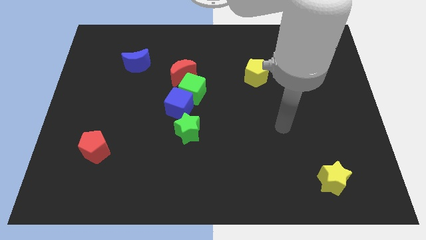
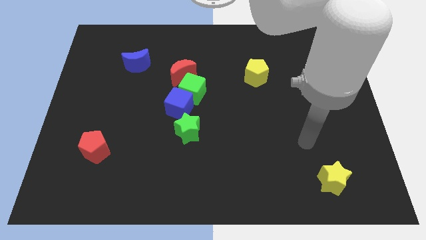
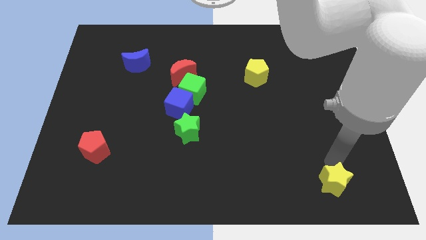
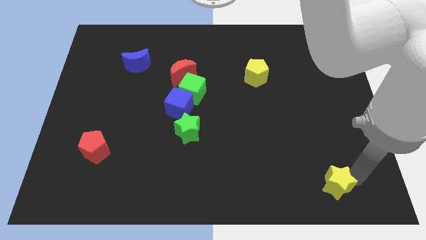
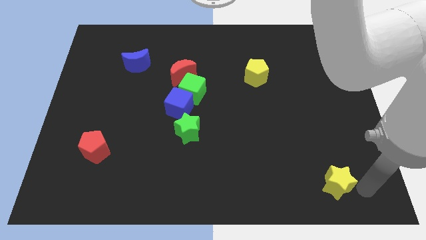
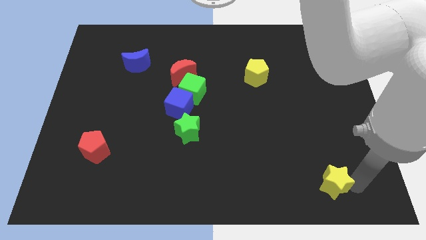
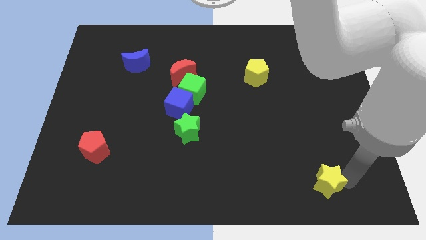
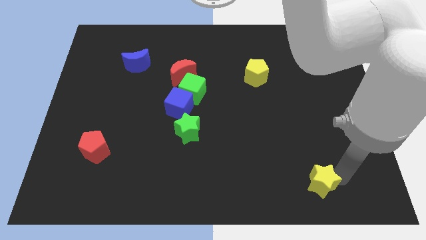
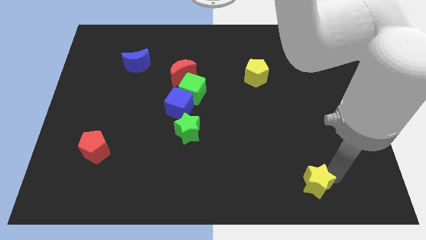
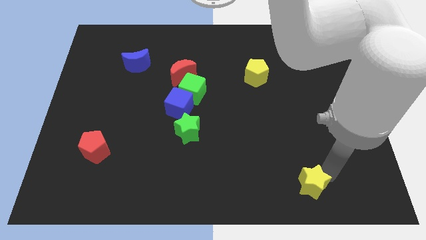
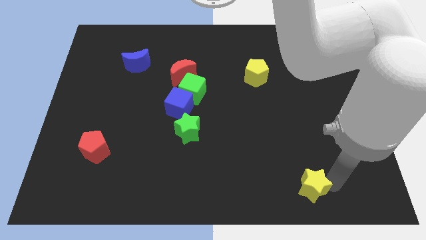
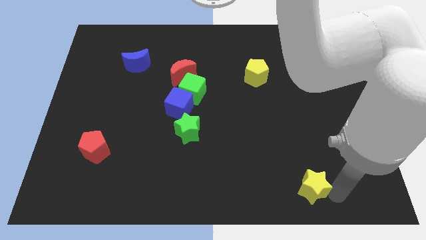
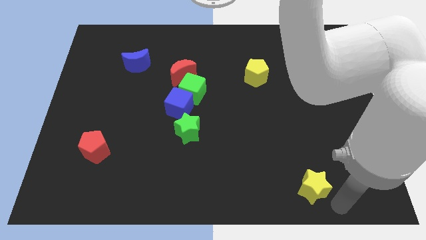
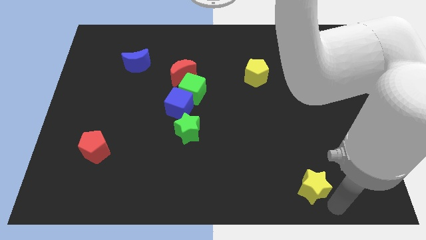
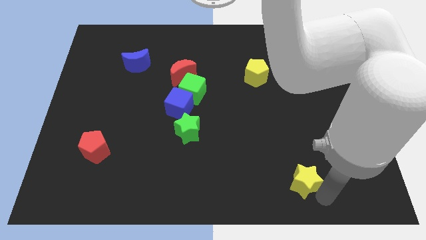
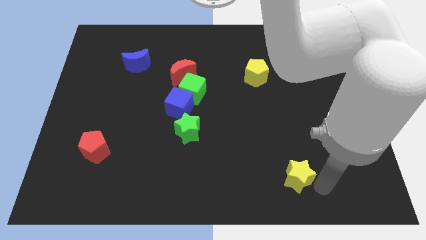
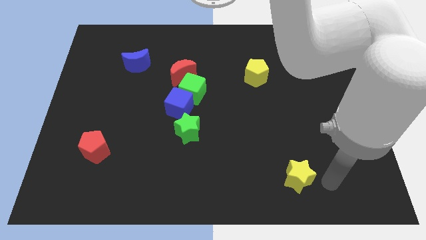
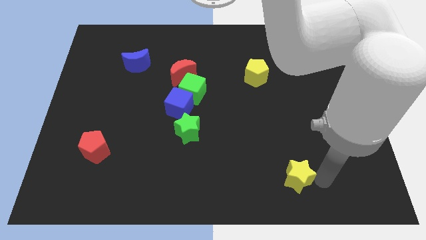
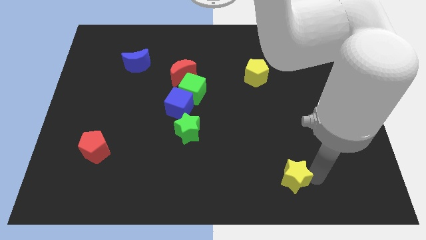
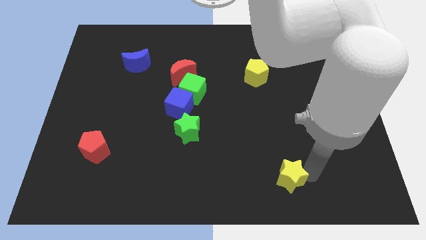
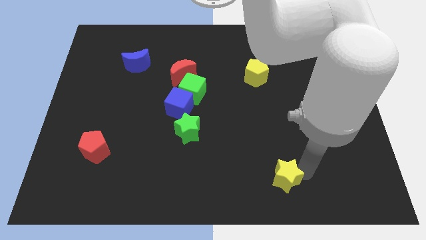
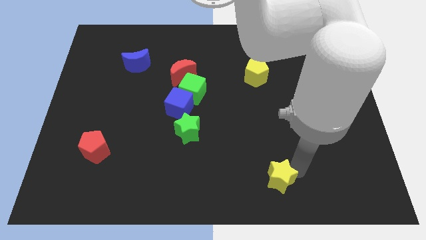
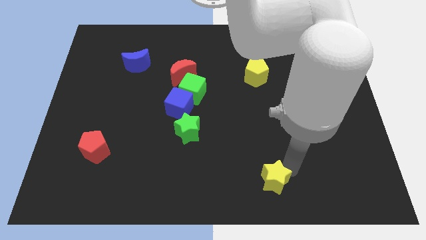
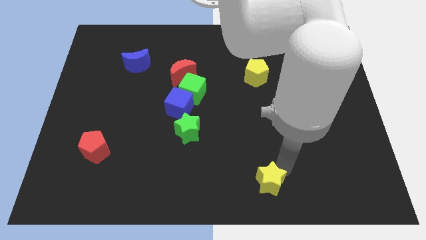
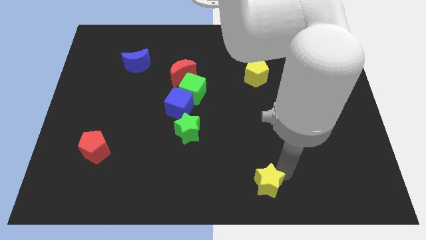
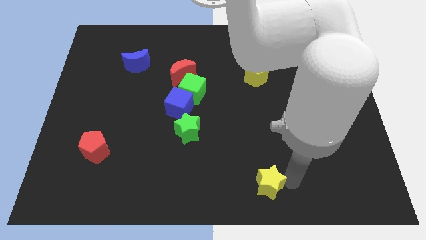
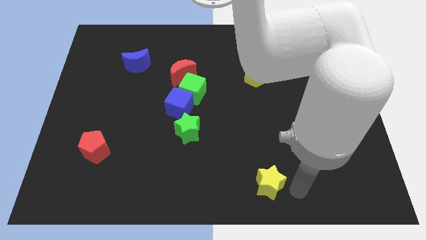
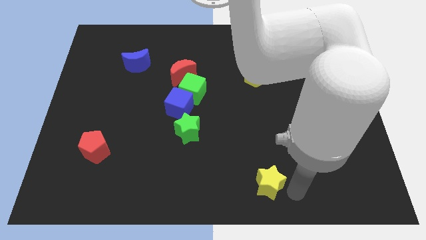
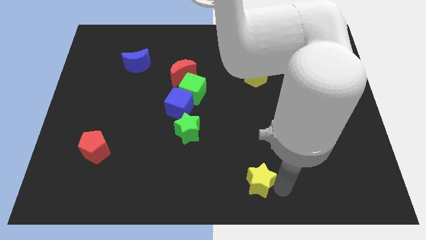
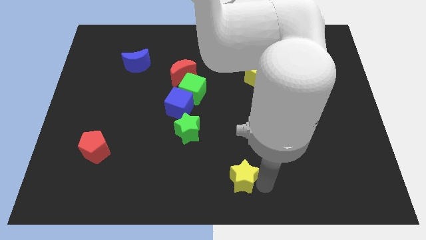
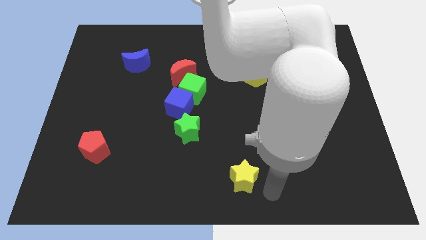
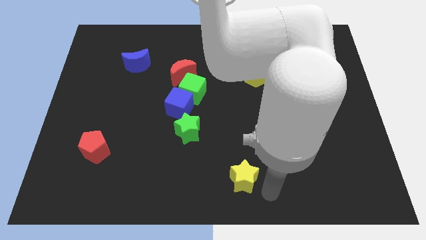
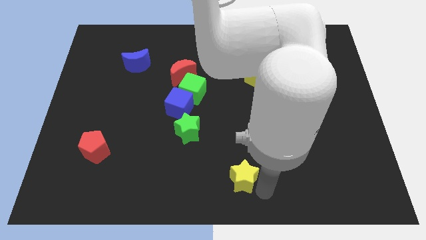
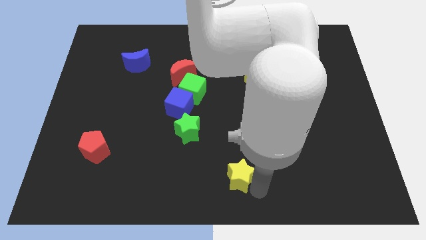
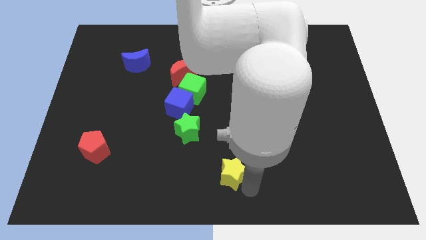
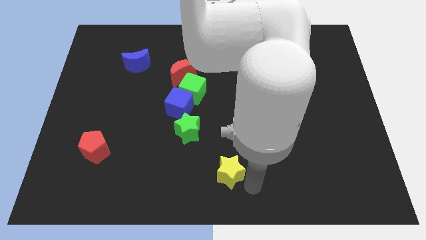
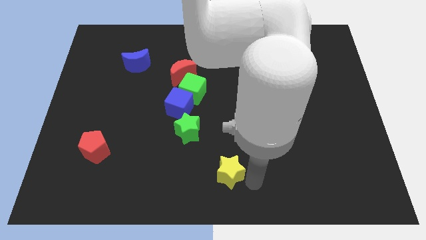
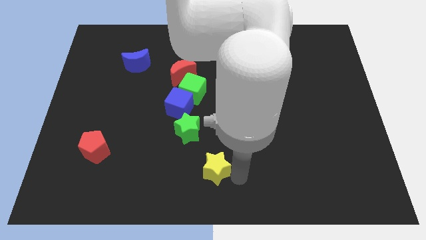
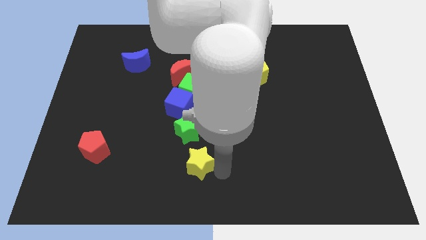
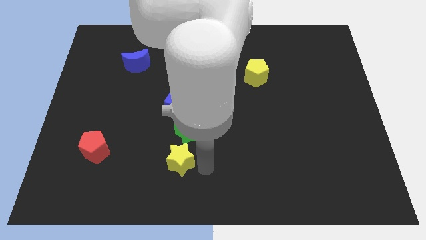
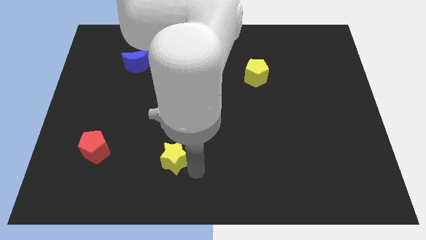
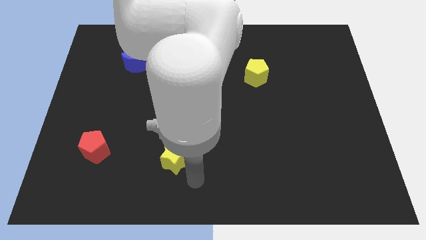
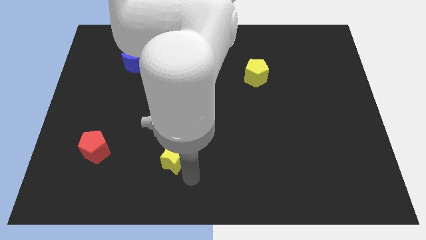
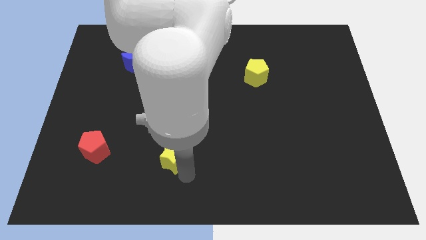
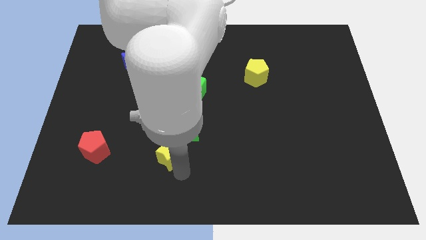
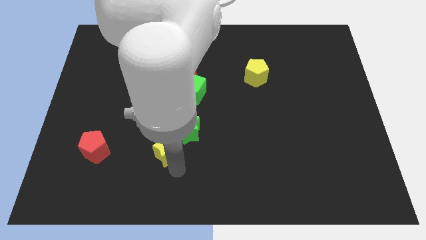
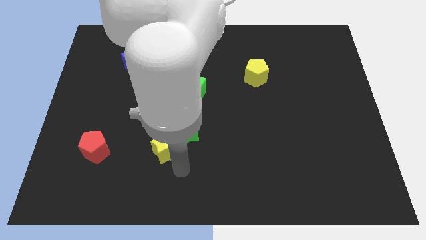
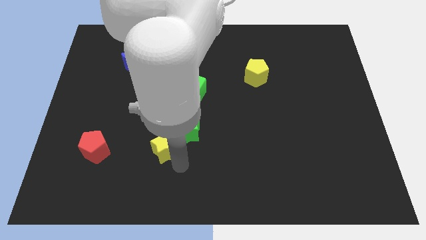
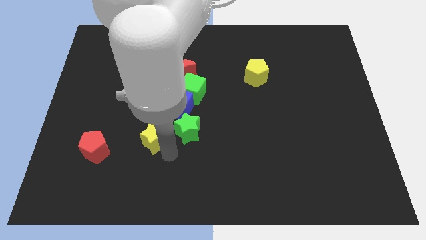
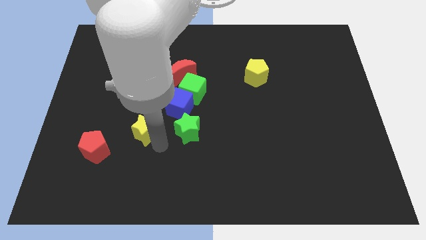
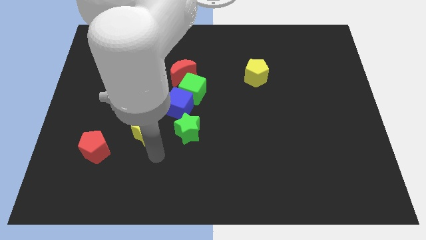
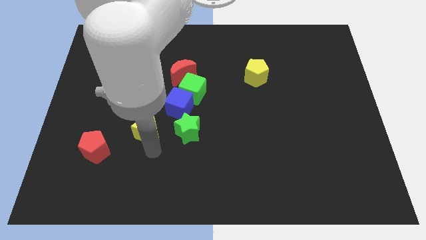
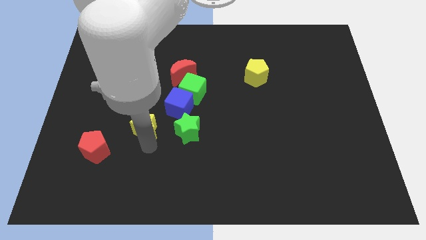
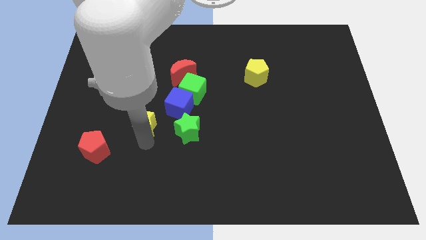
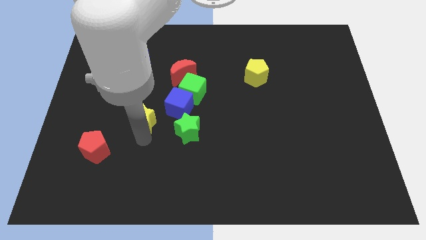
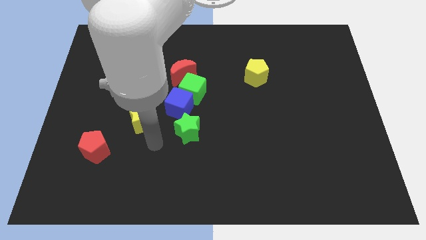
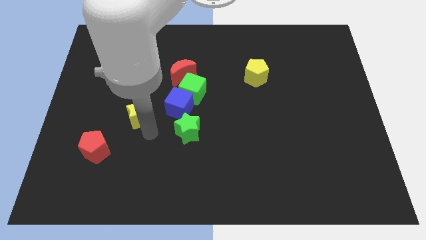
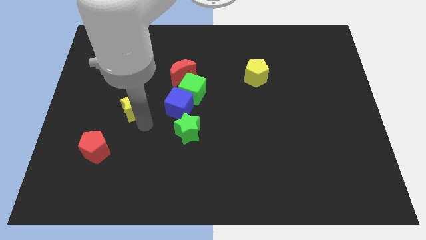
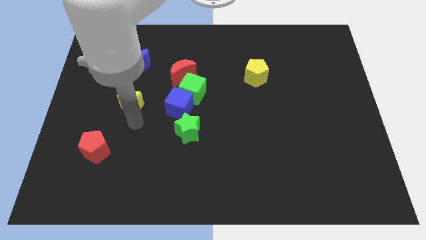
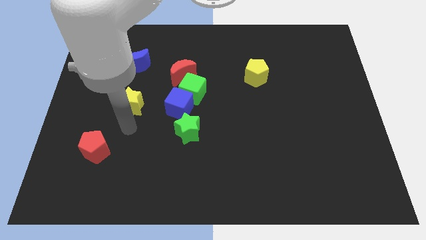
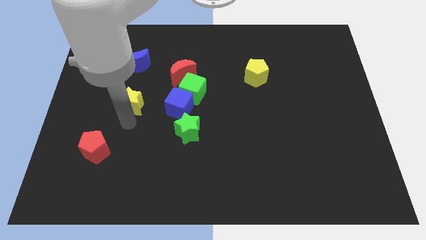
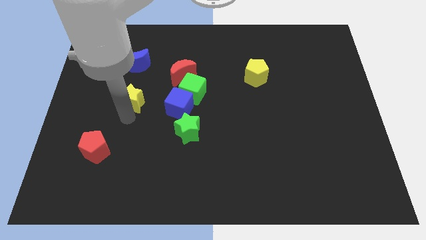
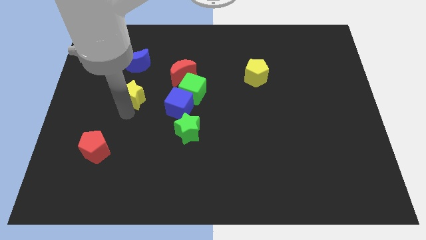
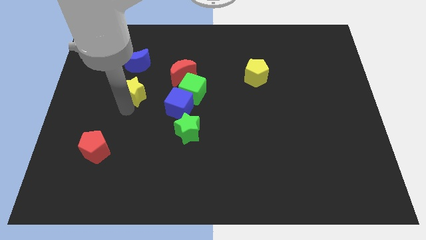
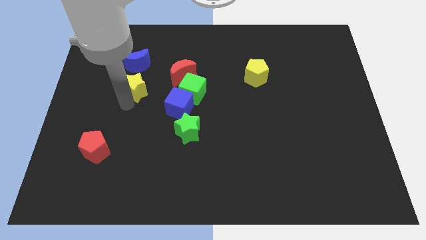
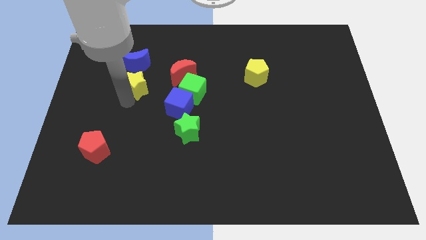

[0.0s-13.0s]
slide the yellow star left of the red moon
